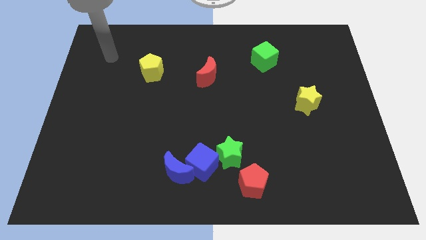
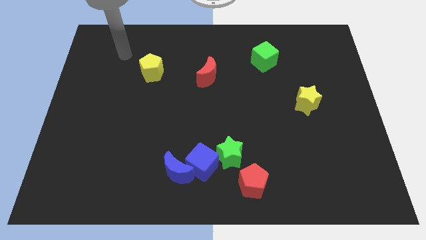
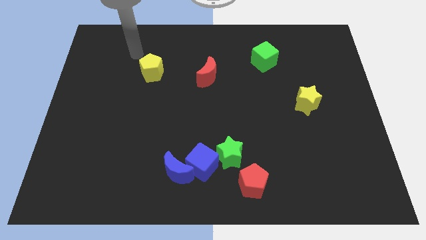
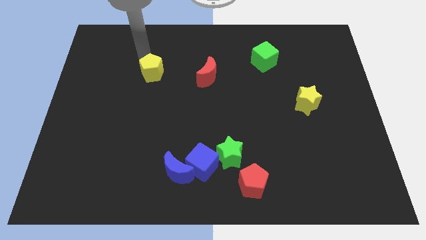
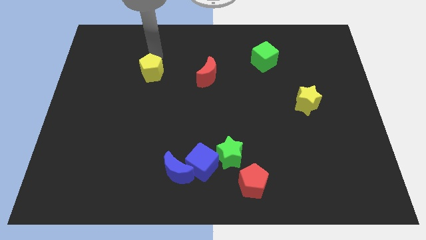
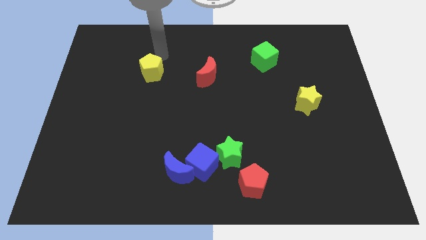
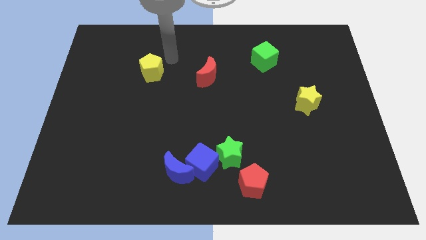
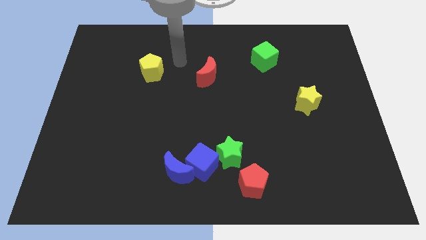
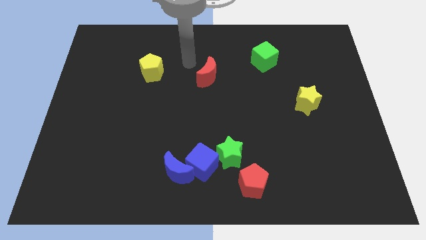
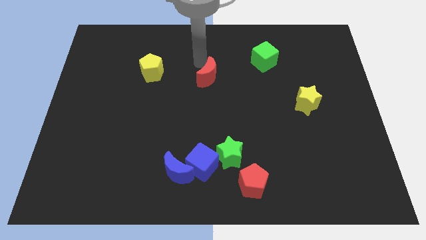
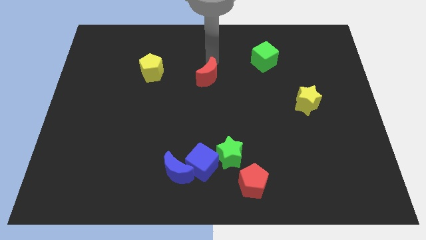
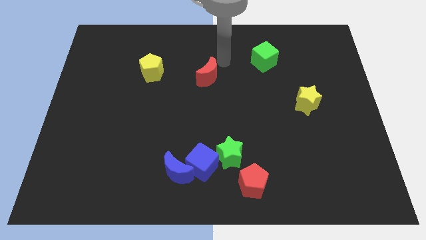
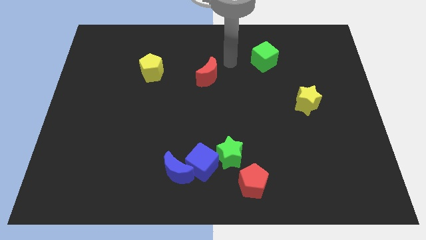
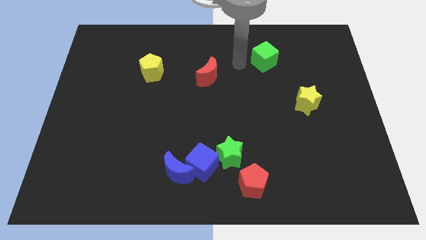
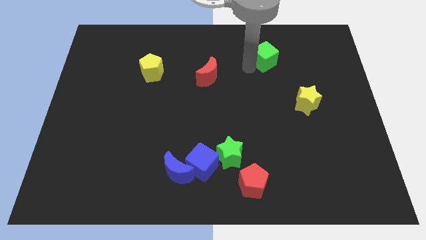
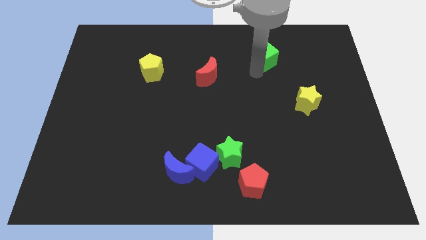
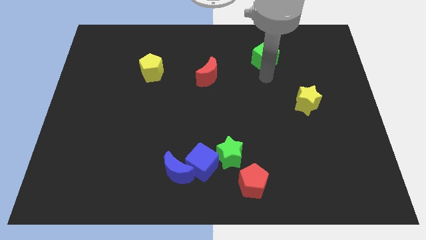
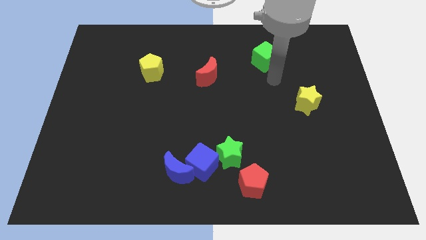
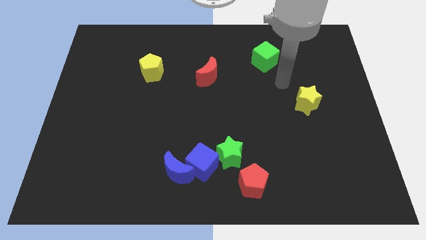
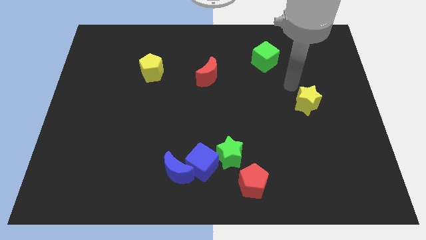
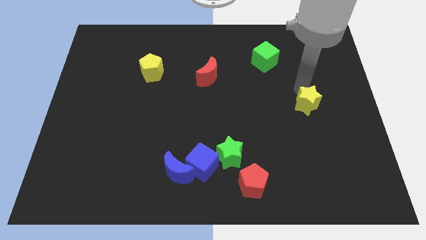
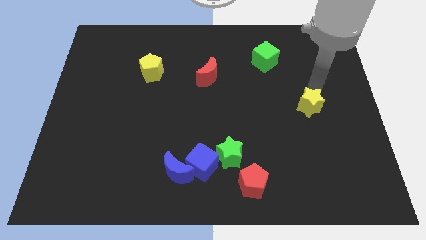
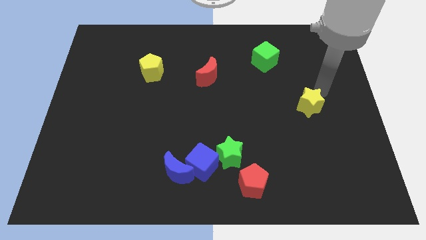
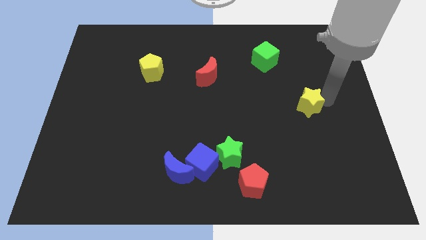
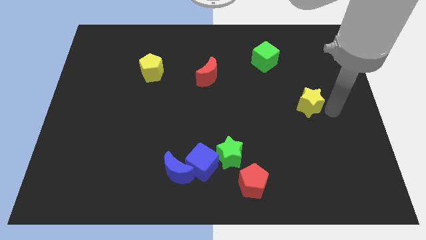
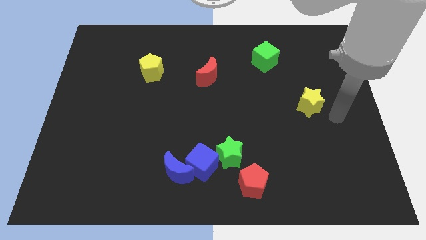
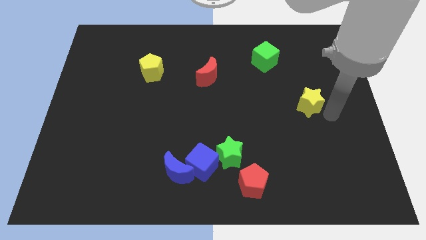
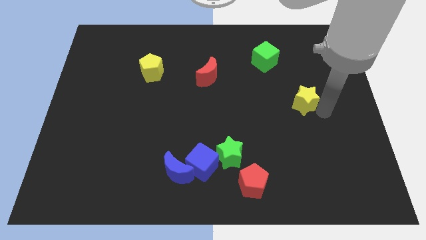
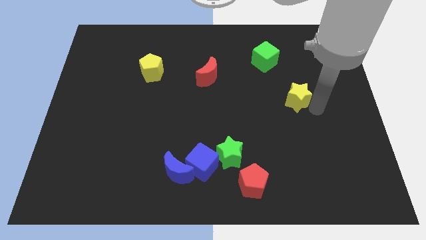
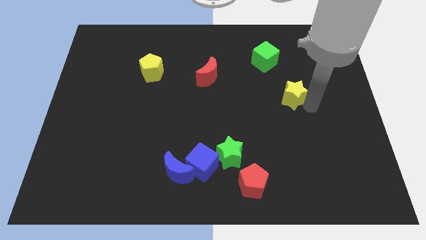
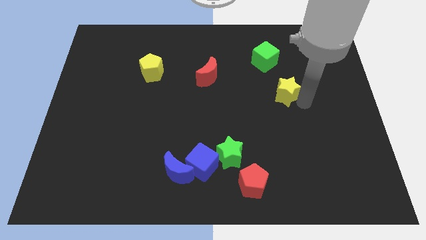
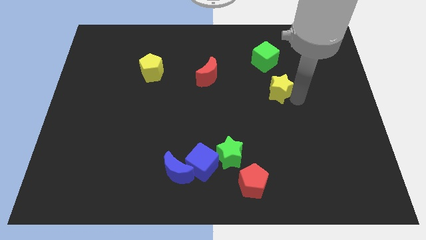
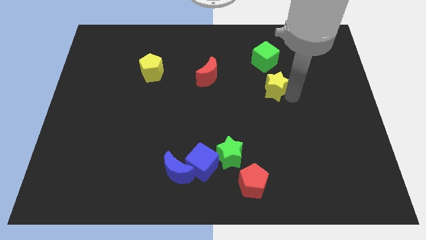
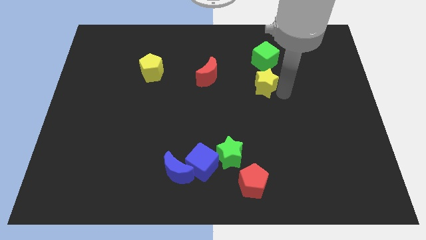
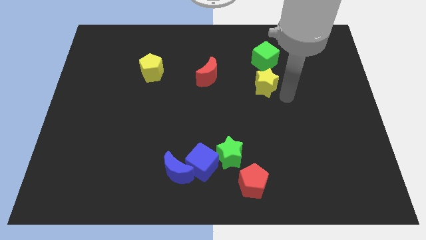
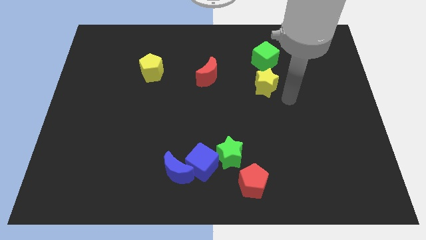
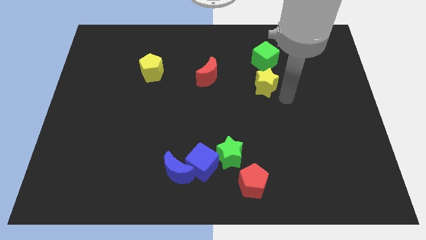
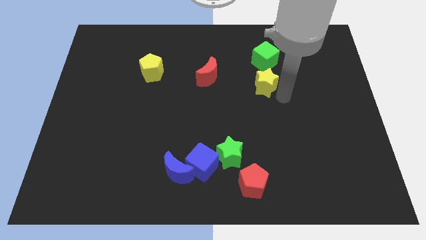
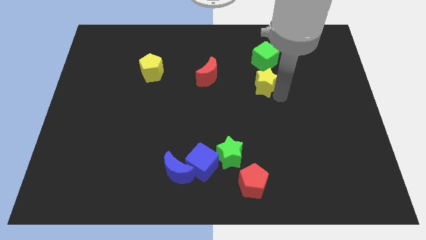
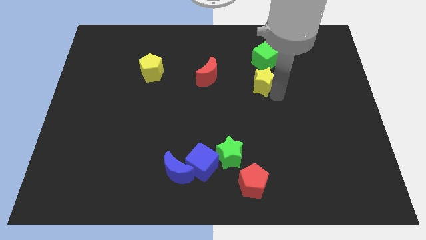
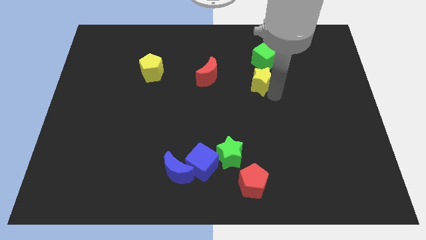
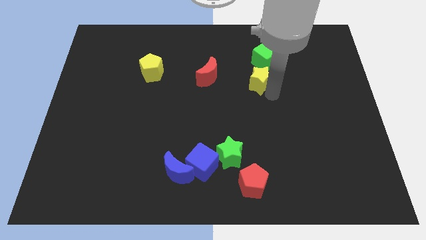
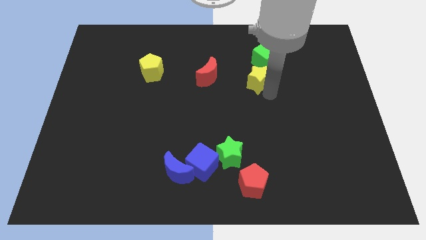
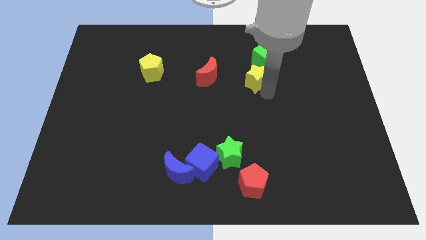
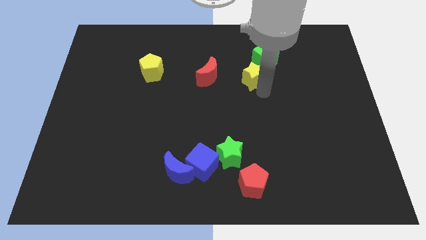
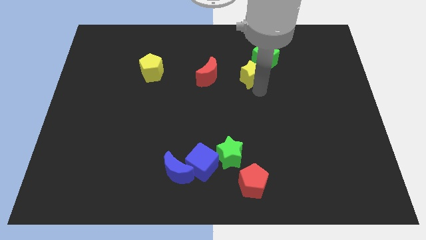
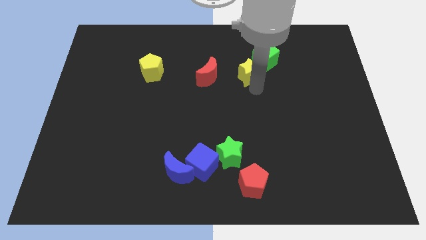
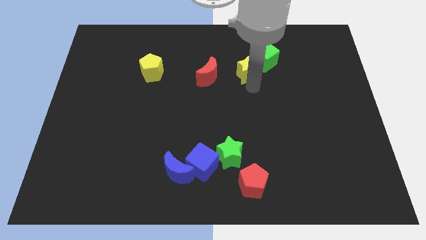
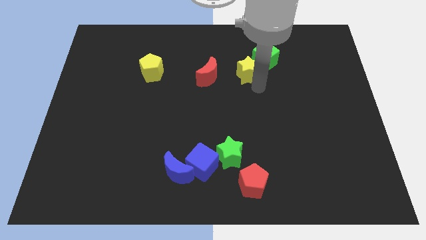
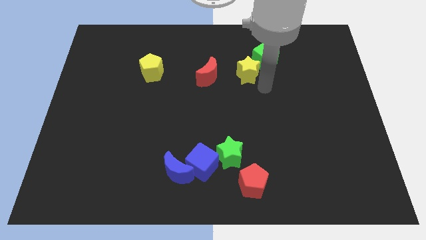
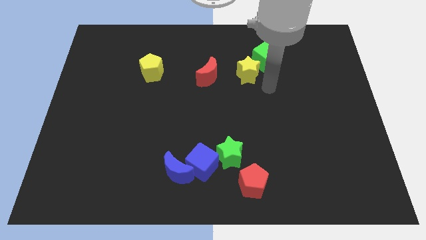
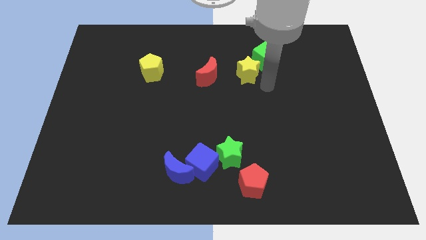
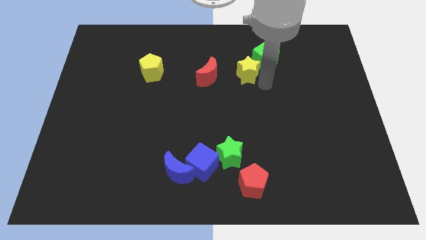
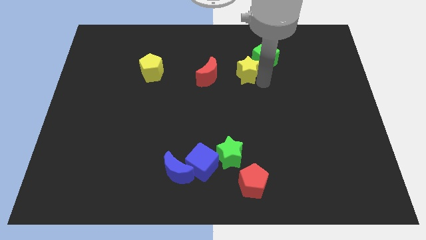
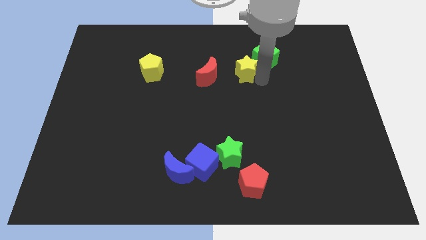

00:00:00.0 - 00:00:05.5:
put the yellow star to the left of the green cube

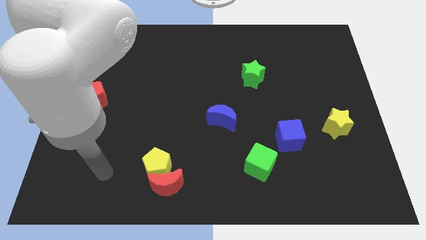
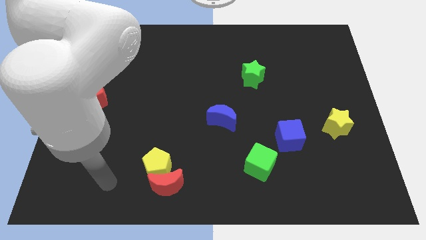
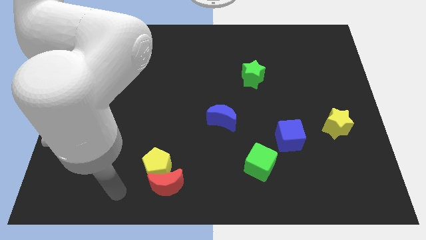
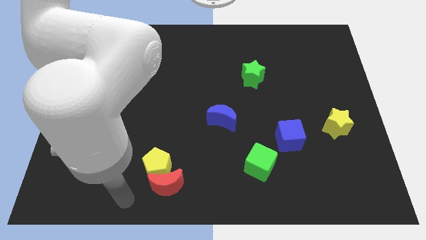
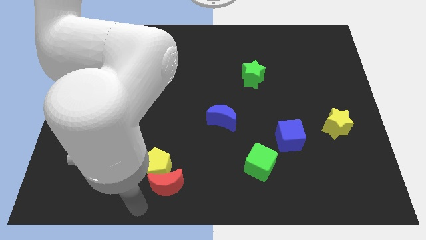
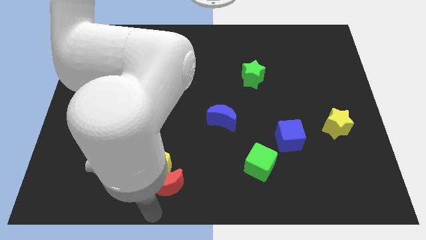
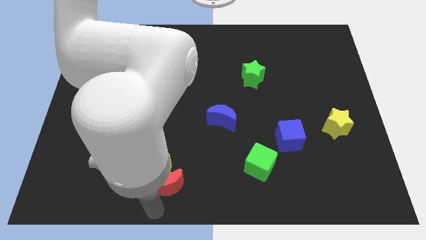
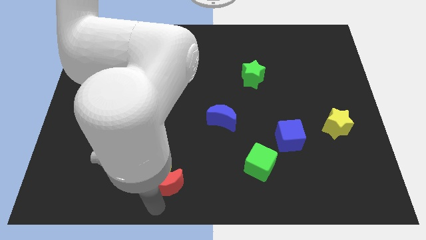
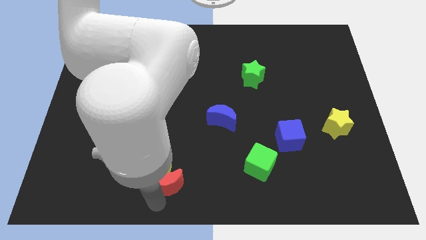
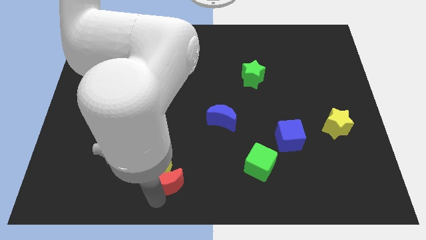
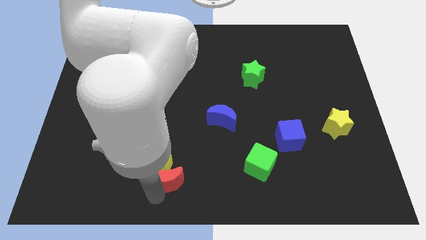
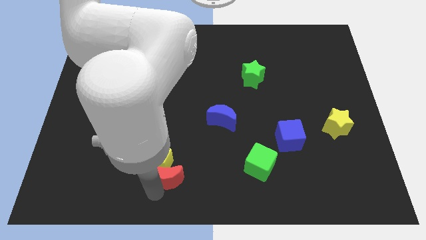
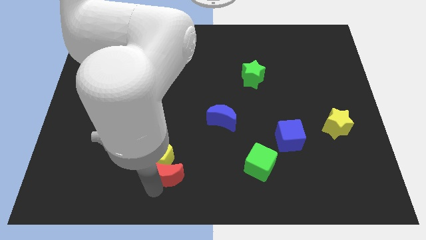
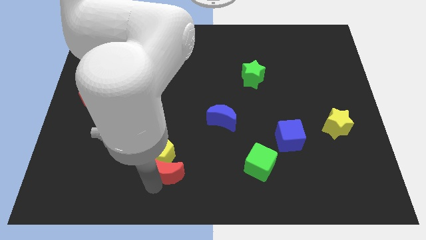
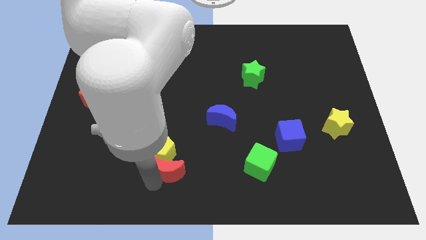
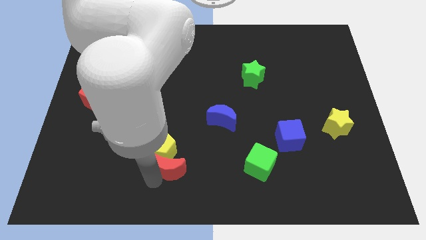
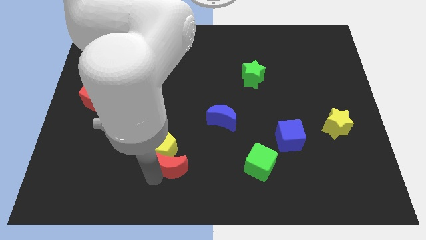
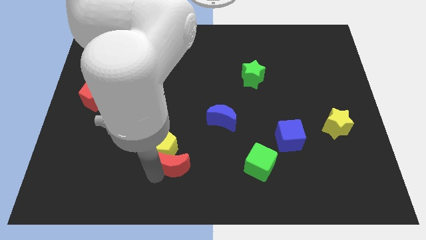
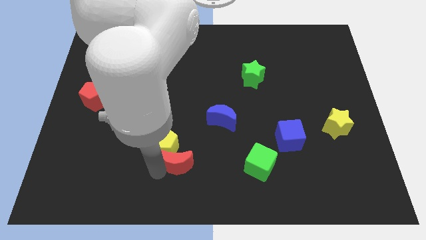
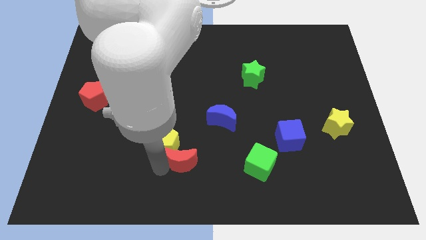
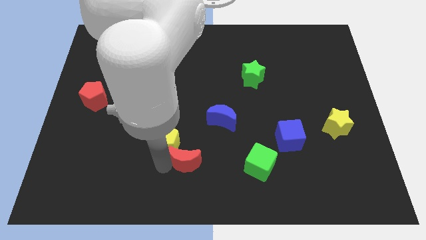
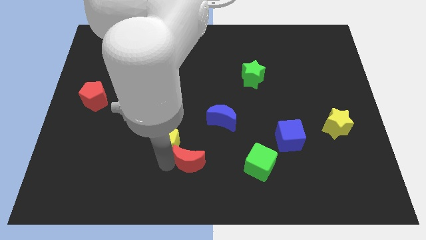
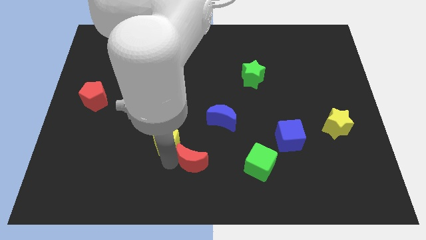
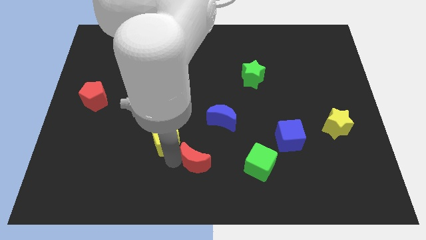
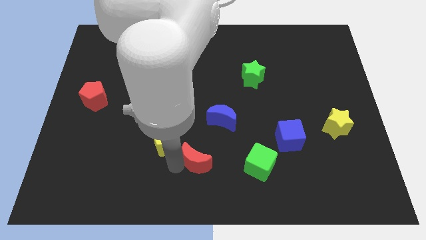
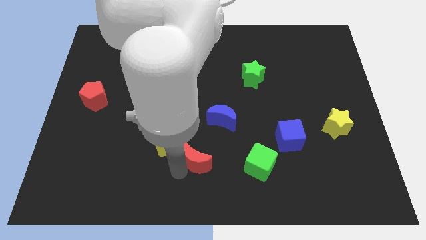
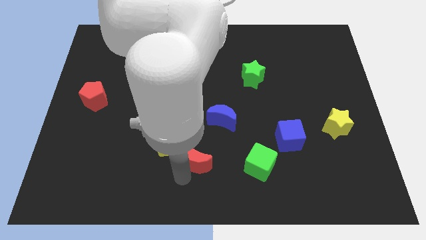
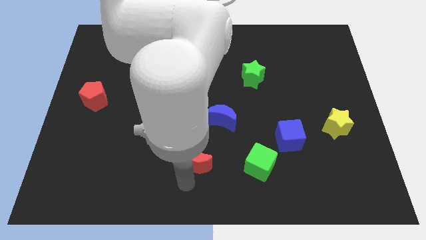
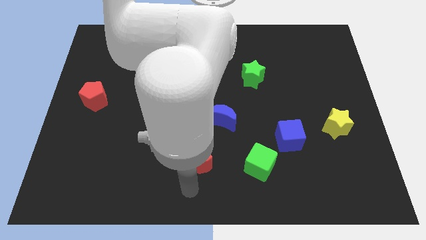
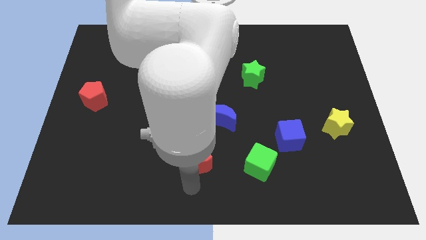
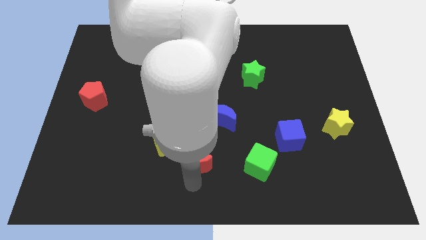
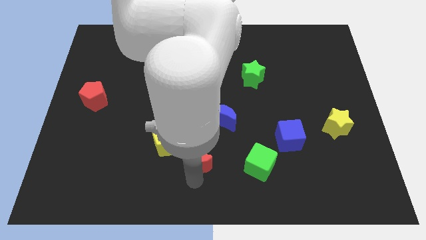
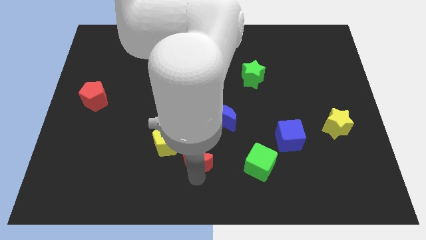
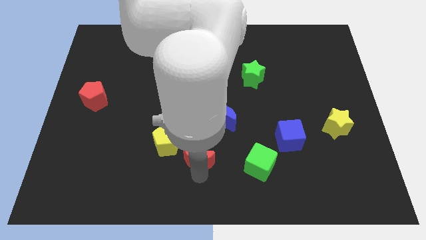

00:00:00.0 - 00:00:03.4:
slide the red moon to the bottom left side of the blue moon
